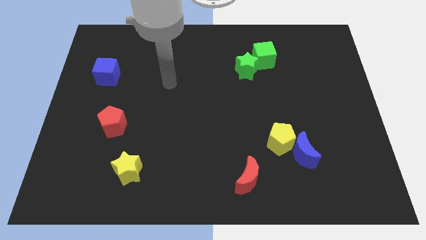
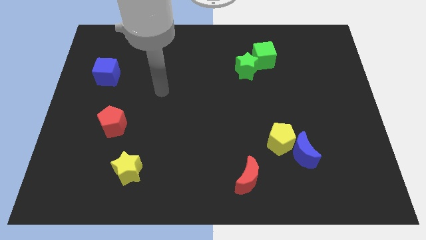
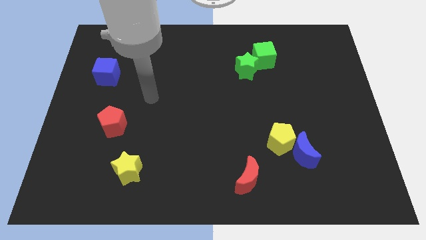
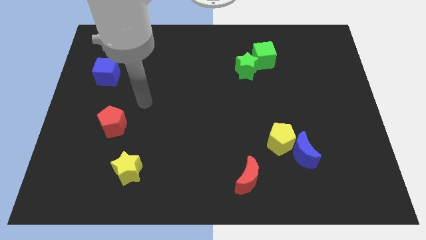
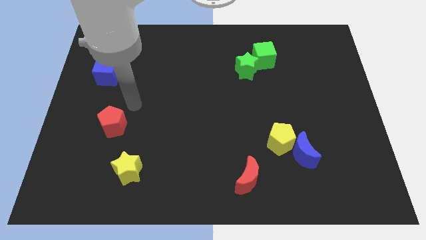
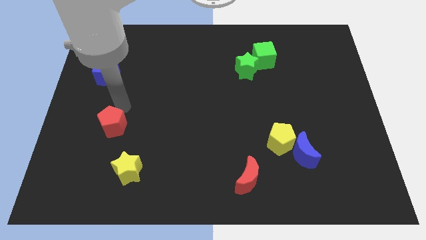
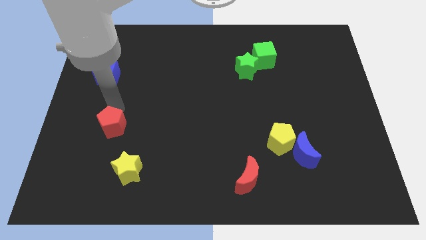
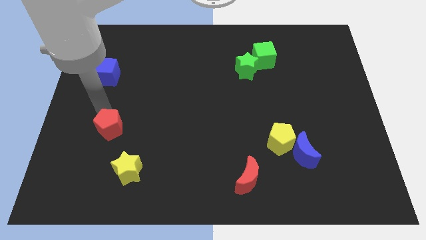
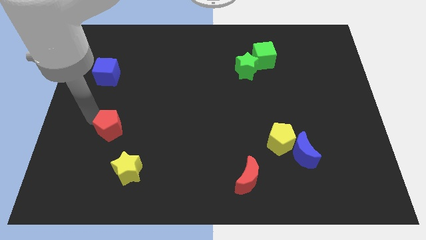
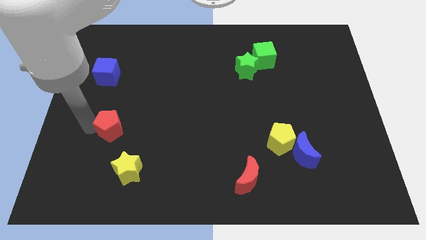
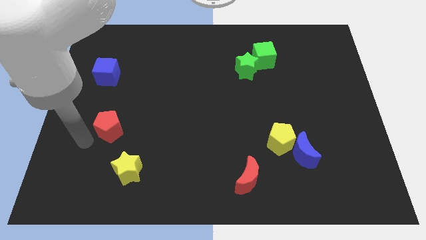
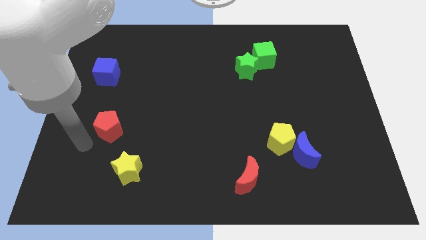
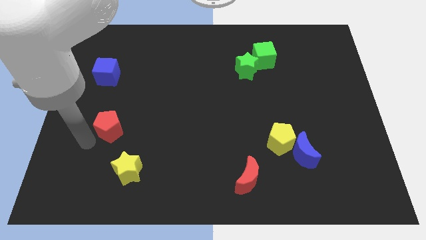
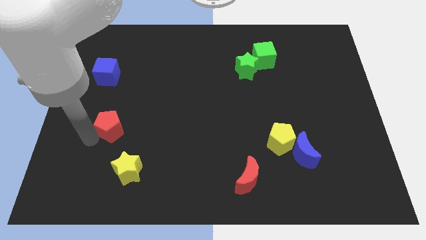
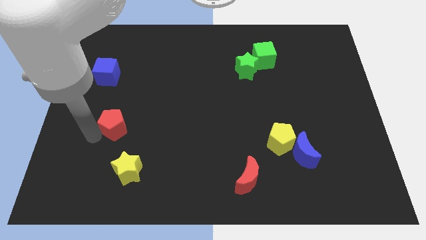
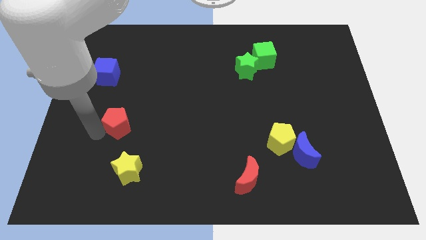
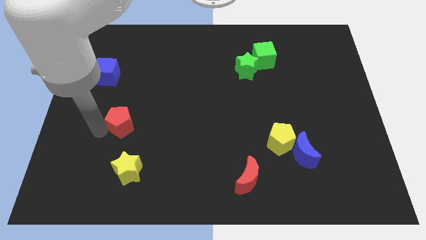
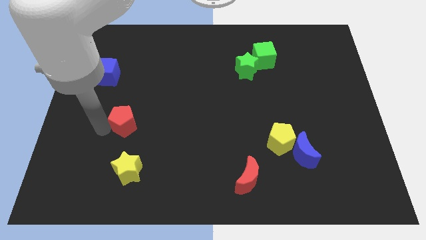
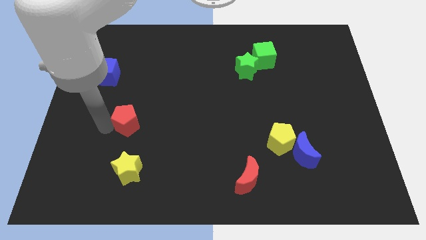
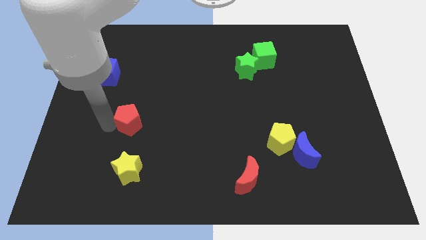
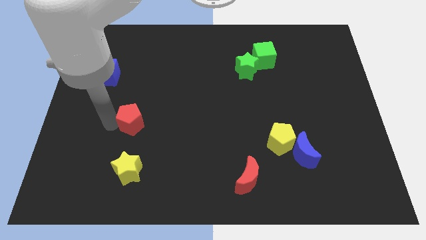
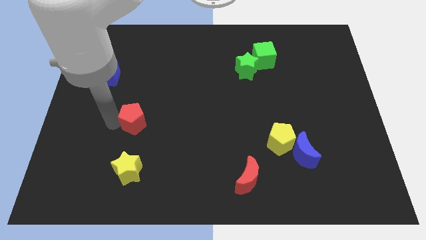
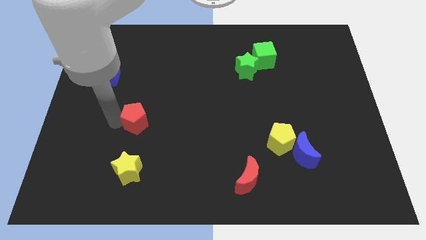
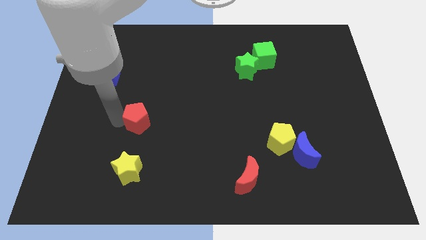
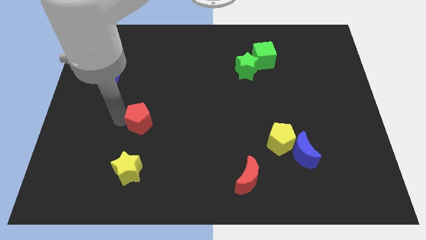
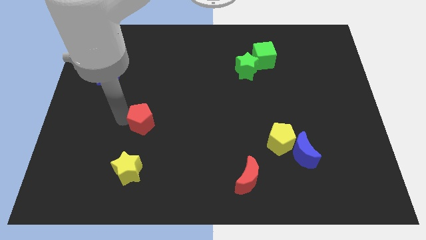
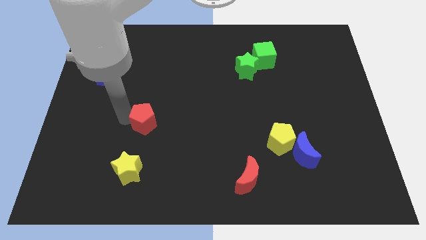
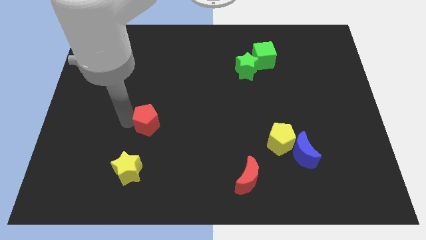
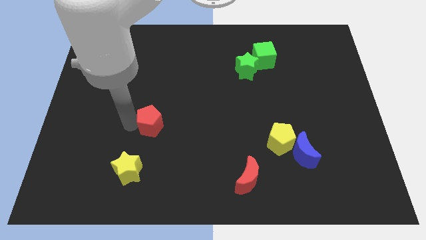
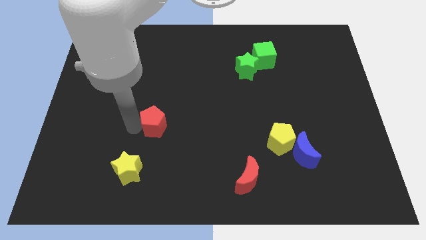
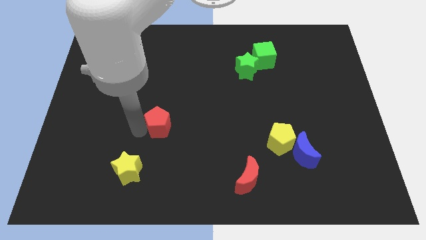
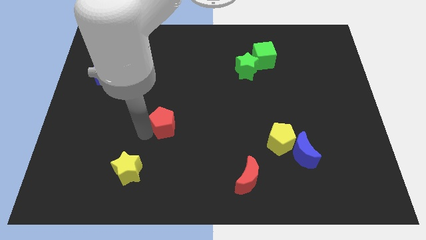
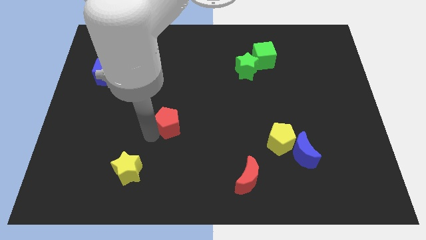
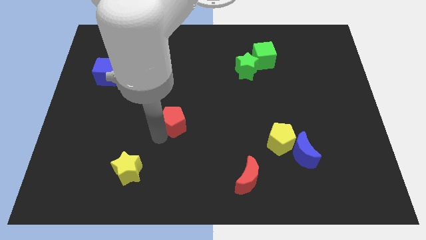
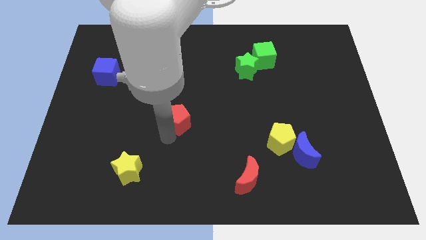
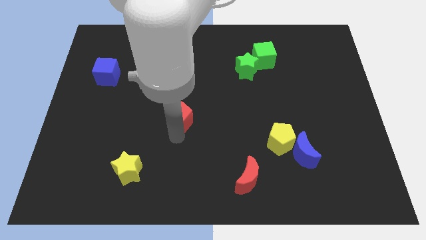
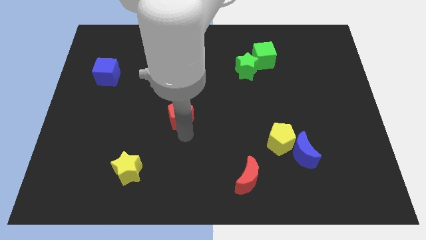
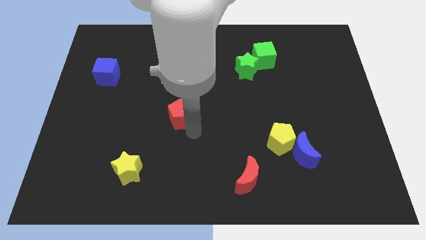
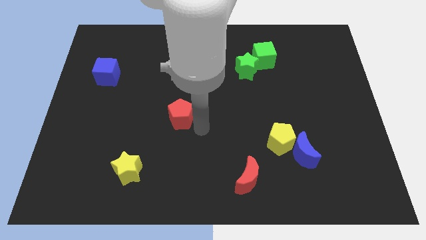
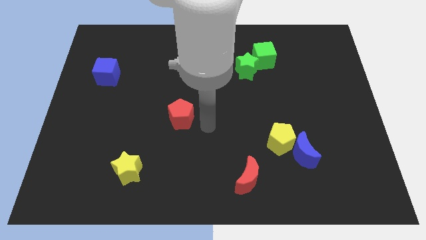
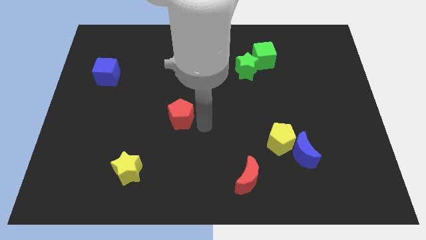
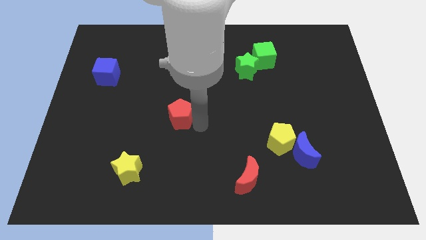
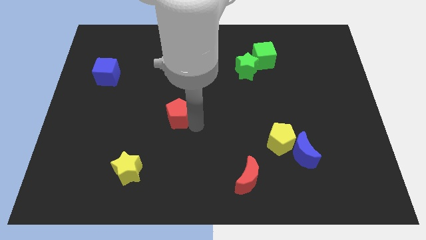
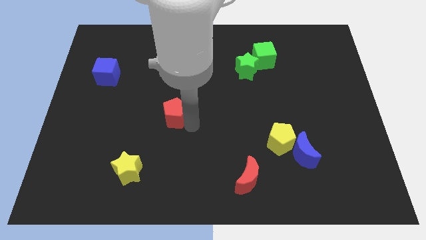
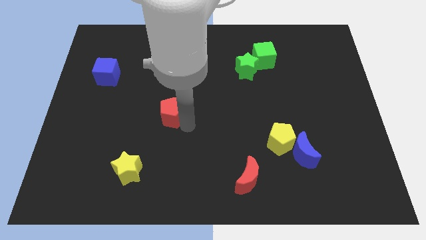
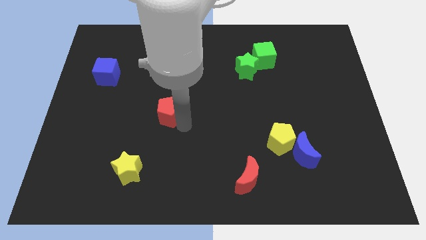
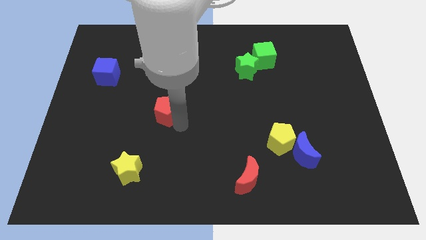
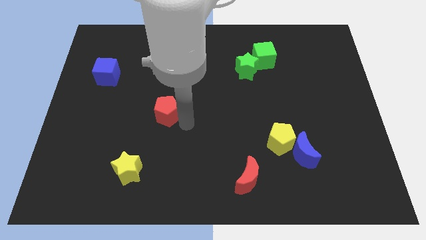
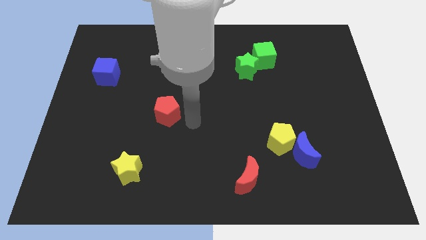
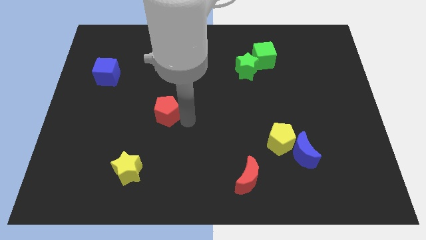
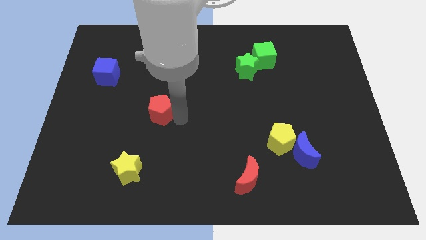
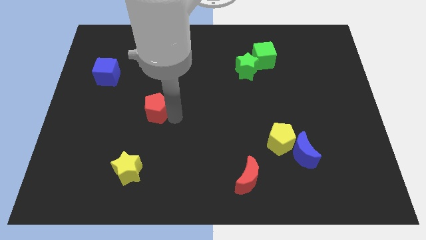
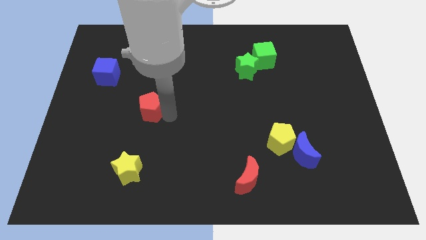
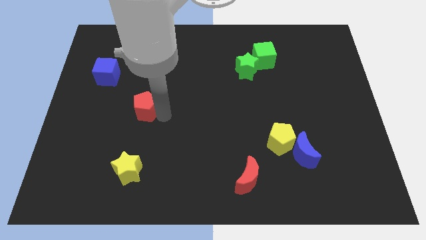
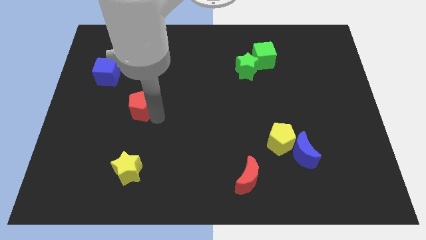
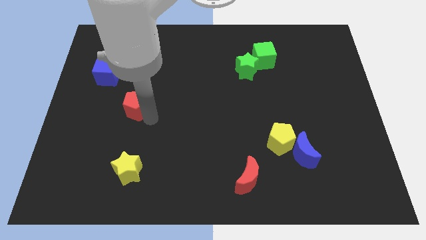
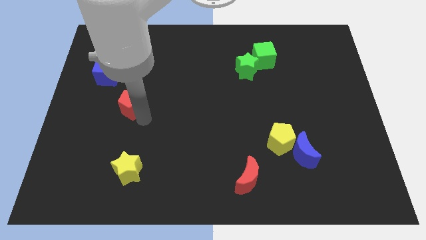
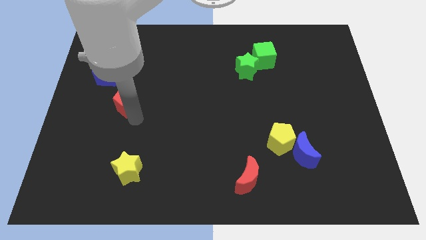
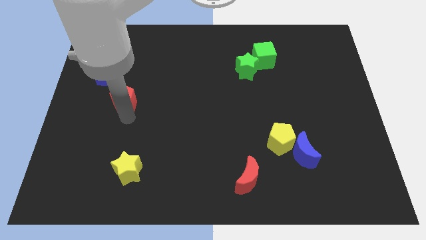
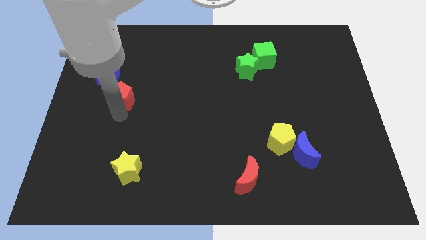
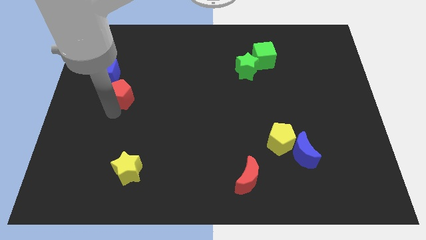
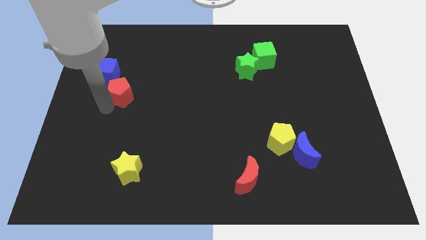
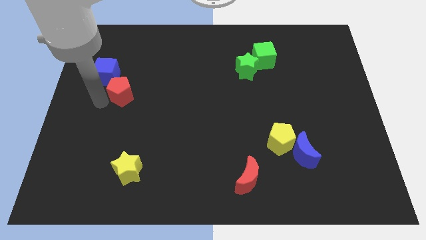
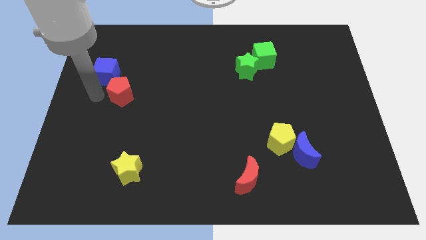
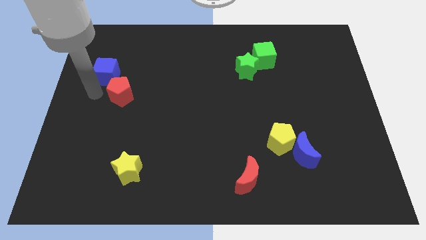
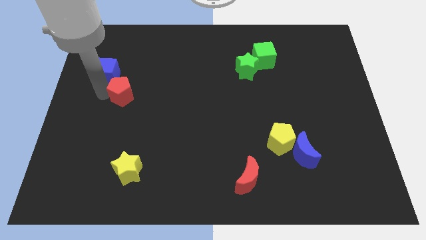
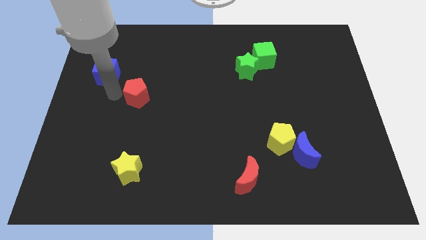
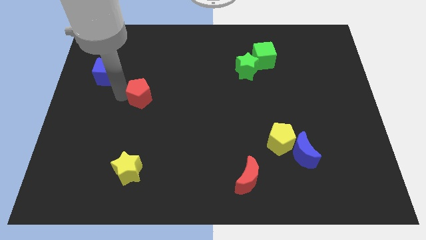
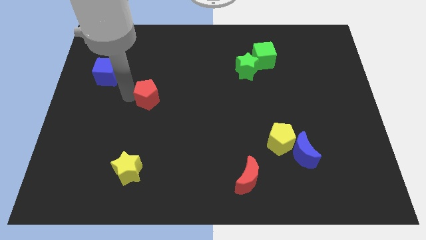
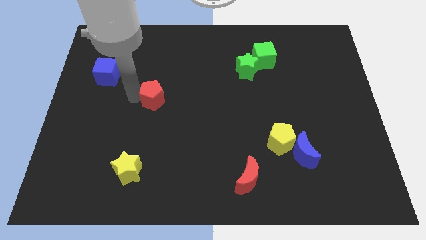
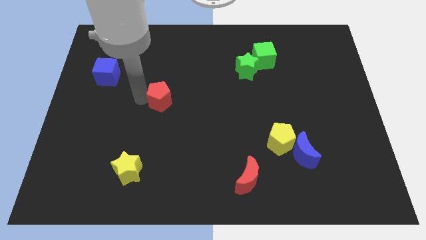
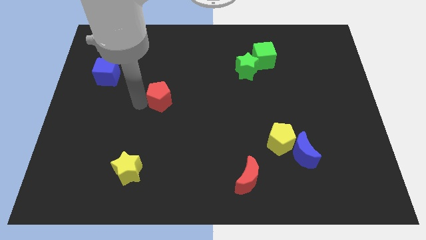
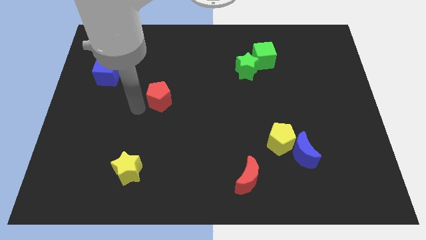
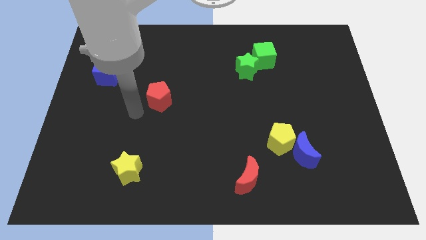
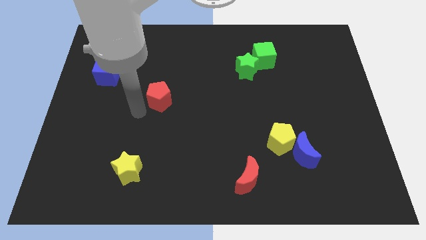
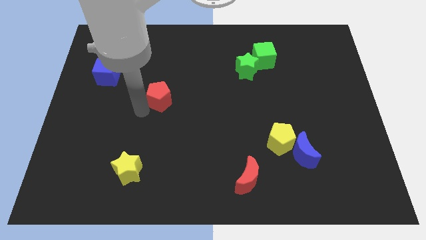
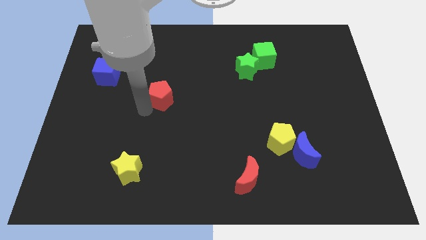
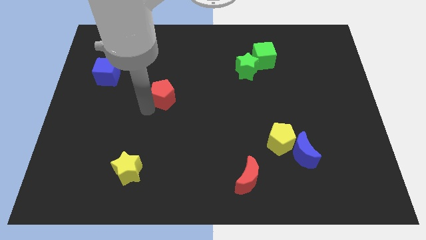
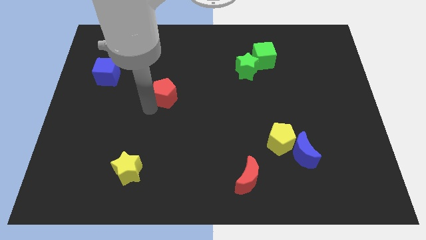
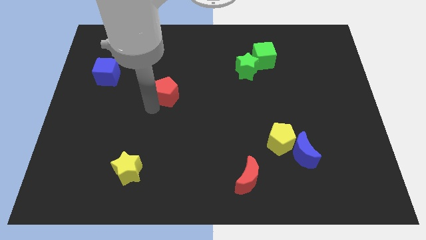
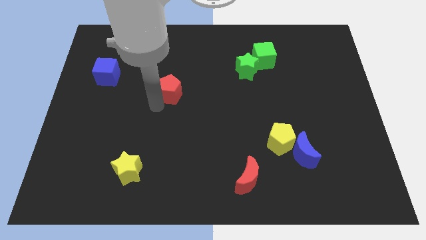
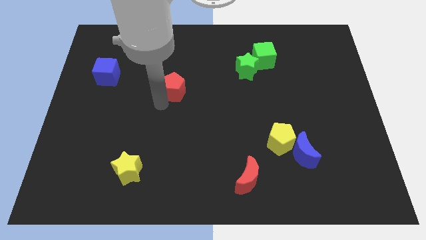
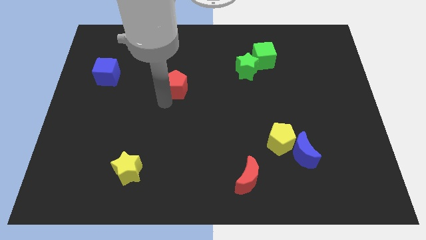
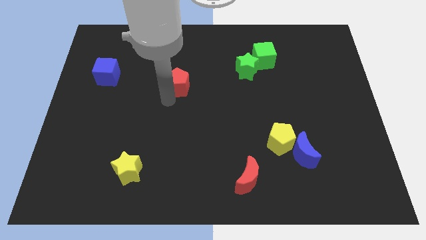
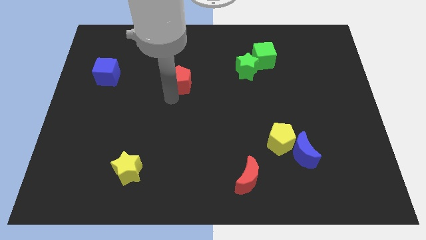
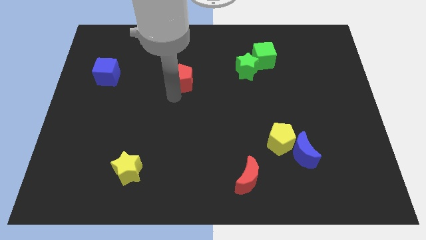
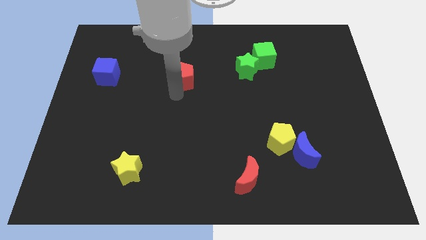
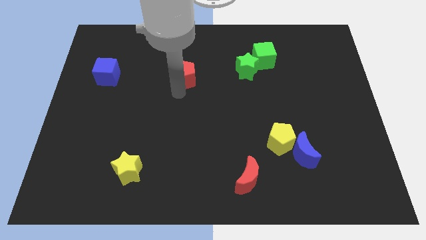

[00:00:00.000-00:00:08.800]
slide the red pentagon to the left side of the green star
